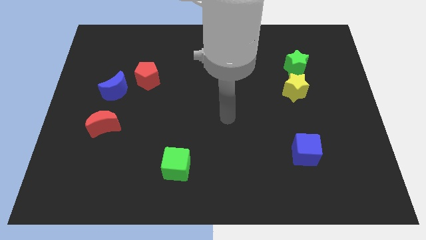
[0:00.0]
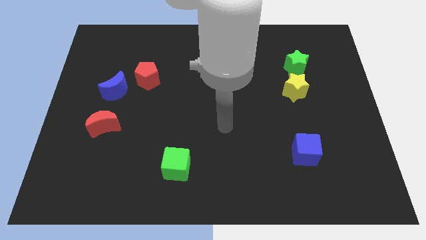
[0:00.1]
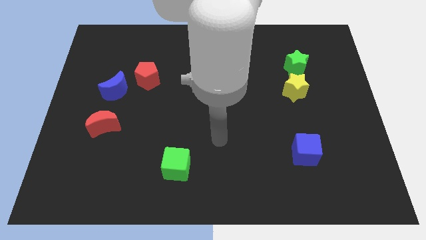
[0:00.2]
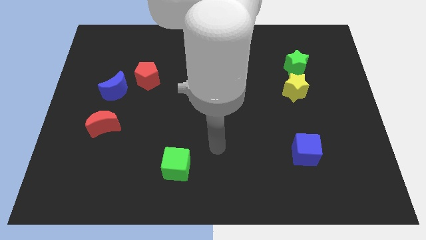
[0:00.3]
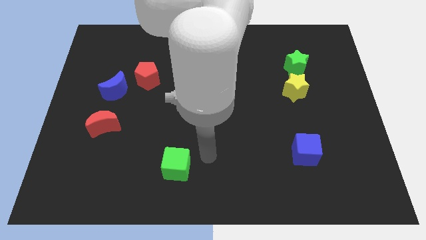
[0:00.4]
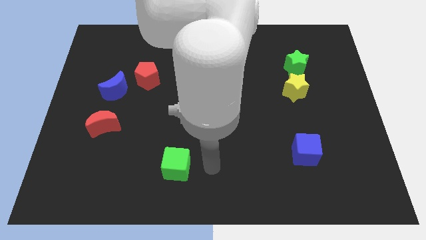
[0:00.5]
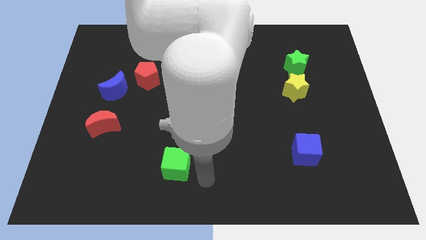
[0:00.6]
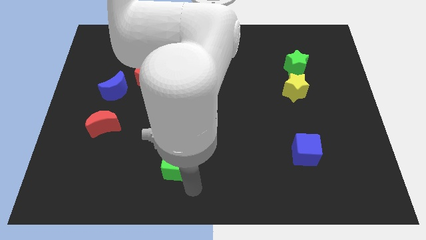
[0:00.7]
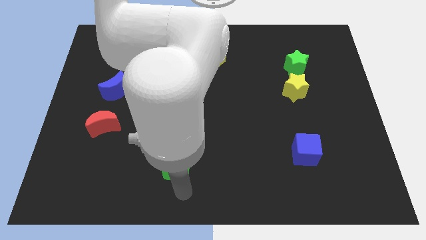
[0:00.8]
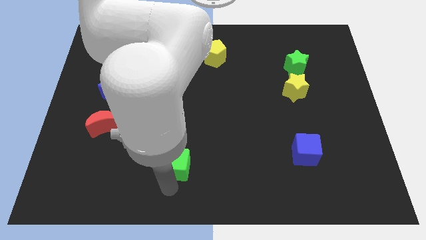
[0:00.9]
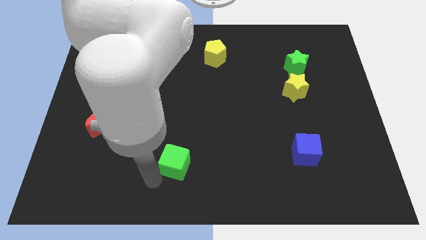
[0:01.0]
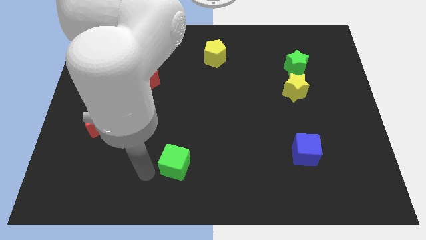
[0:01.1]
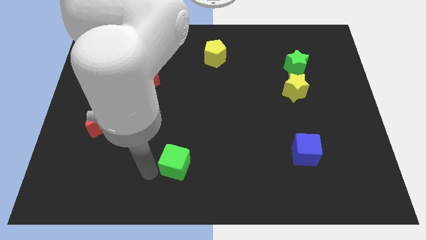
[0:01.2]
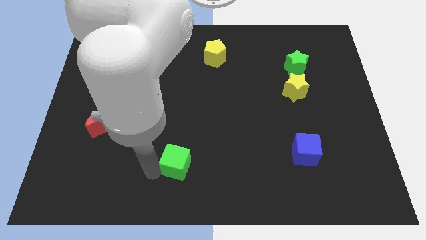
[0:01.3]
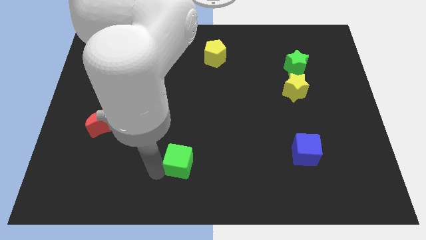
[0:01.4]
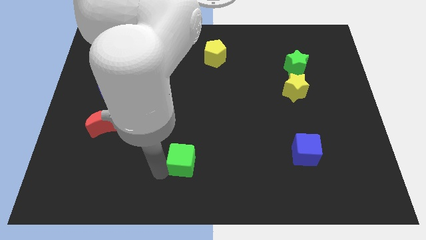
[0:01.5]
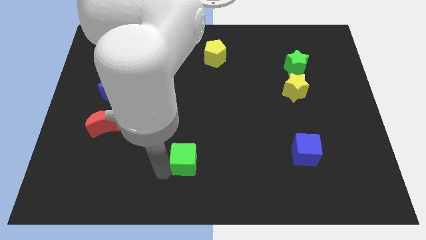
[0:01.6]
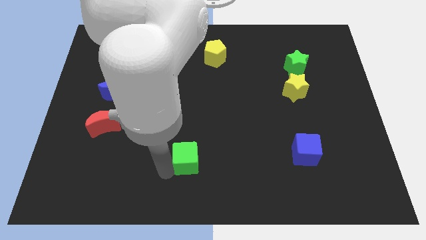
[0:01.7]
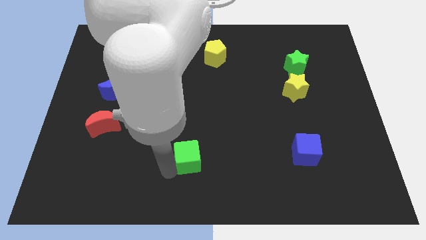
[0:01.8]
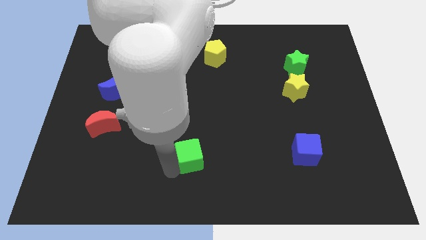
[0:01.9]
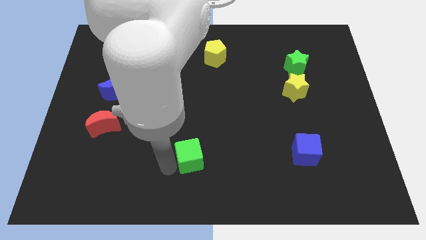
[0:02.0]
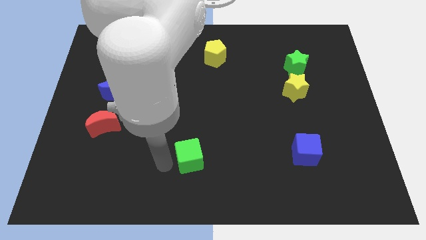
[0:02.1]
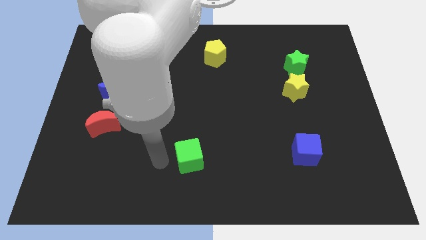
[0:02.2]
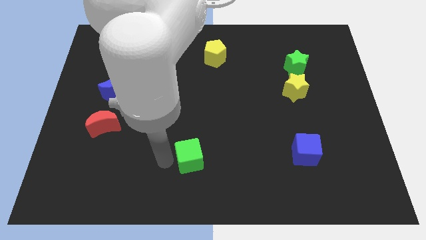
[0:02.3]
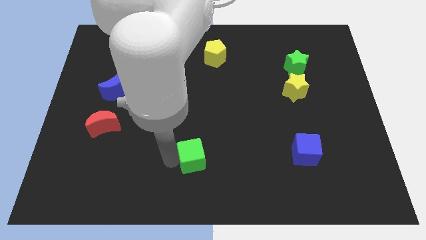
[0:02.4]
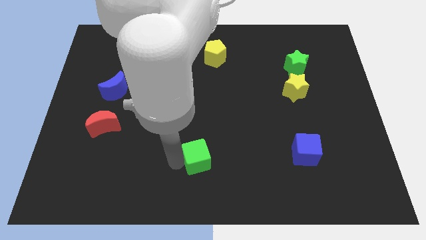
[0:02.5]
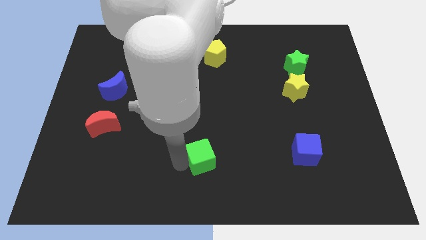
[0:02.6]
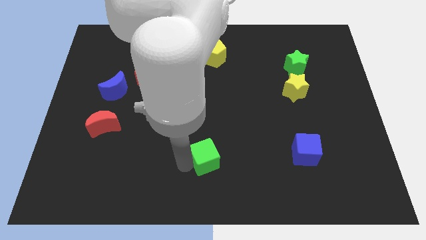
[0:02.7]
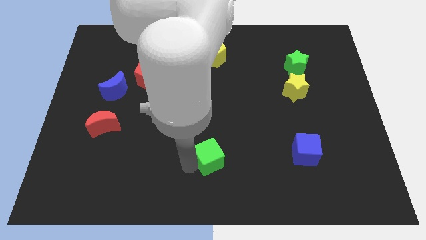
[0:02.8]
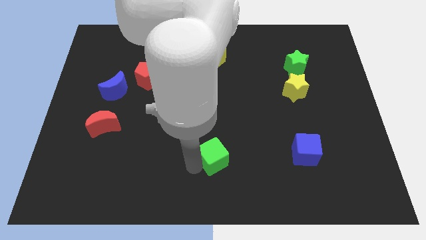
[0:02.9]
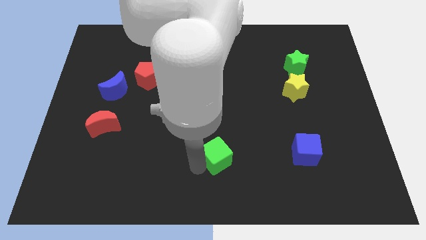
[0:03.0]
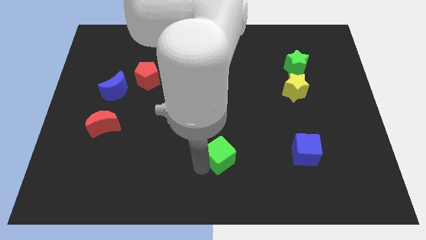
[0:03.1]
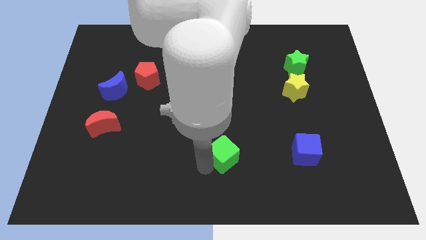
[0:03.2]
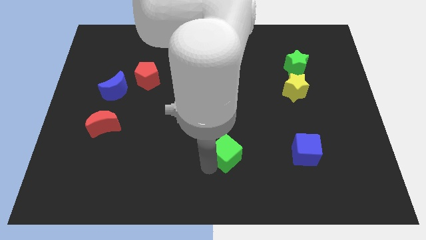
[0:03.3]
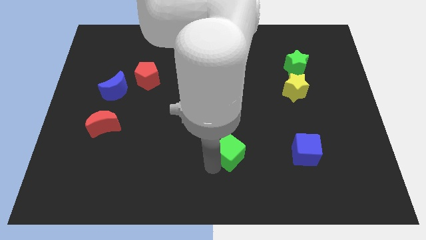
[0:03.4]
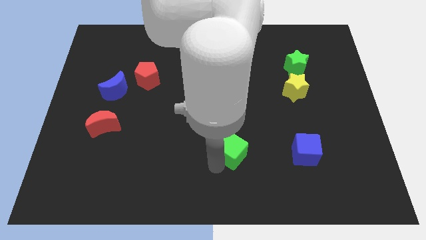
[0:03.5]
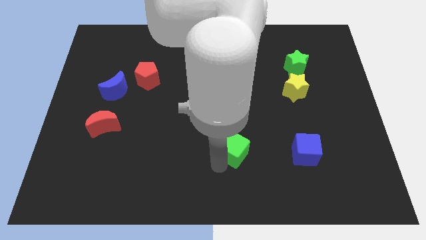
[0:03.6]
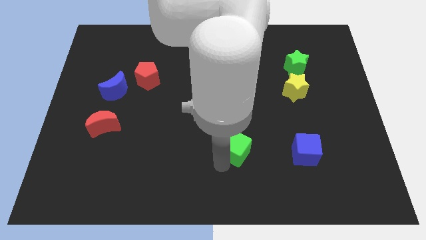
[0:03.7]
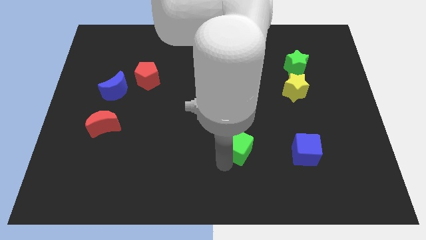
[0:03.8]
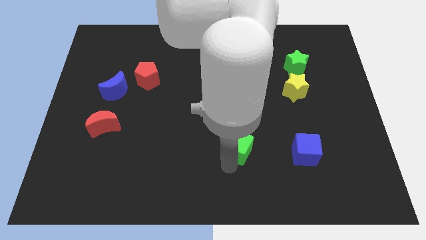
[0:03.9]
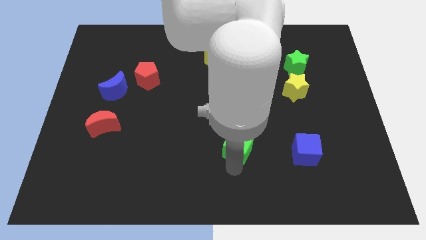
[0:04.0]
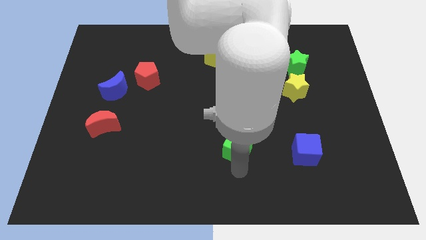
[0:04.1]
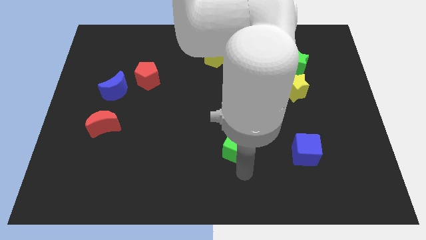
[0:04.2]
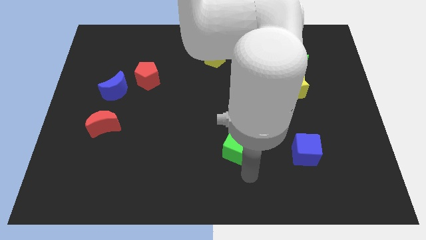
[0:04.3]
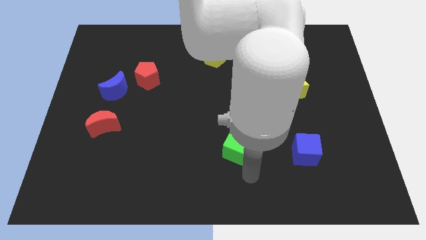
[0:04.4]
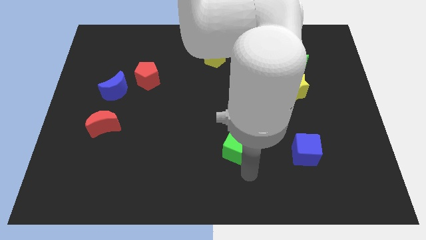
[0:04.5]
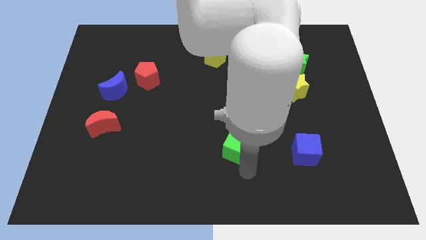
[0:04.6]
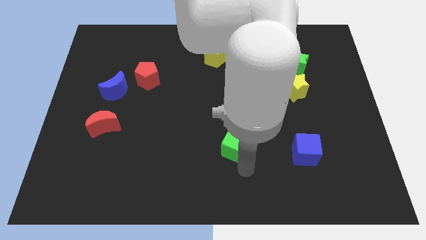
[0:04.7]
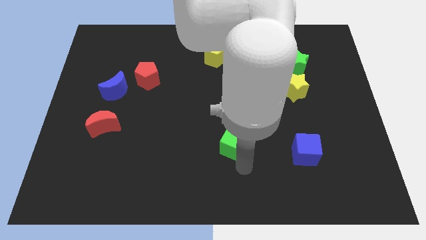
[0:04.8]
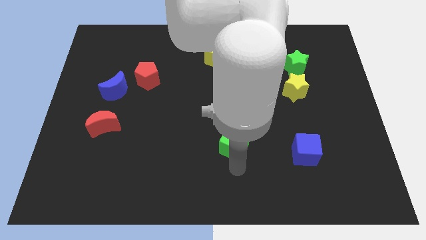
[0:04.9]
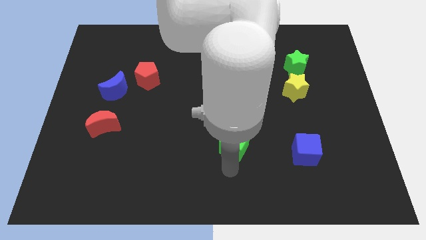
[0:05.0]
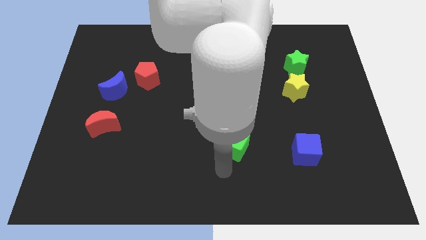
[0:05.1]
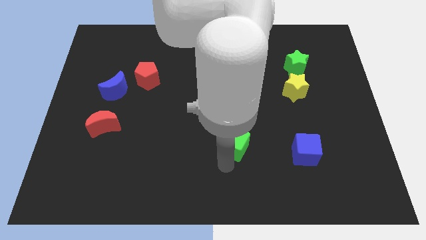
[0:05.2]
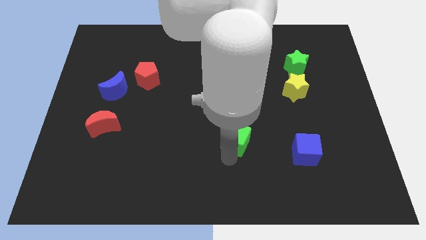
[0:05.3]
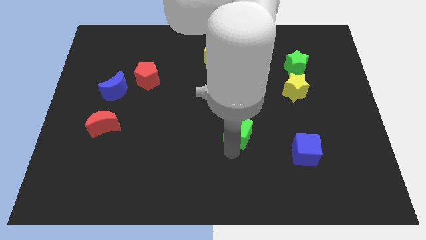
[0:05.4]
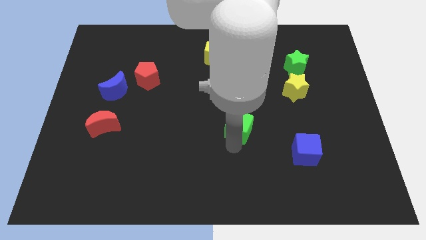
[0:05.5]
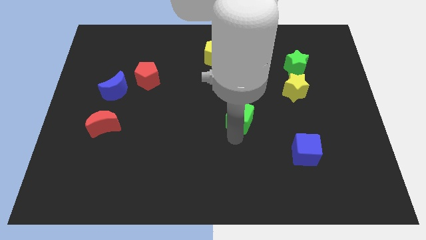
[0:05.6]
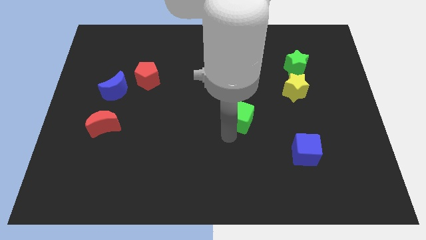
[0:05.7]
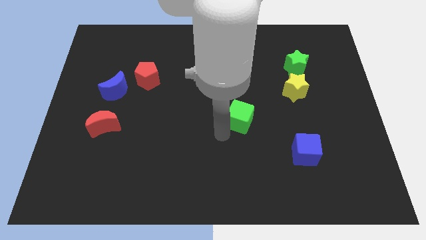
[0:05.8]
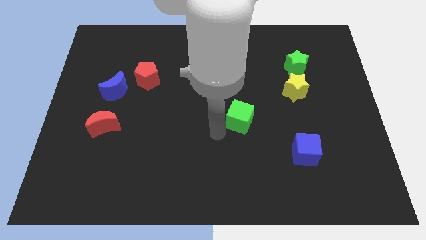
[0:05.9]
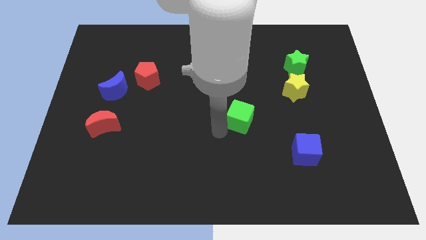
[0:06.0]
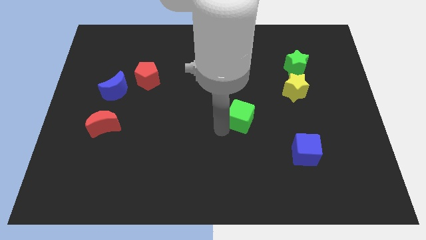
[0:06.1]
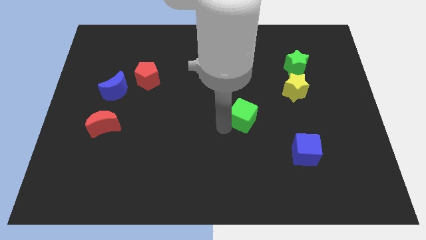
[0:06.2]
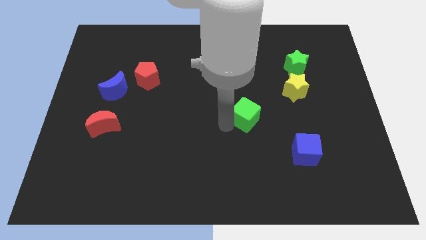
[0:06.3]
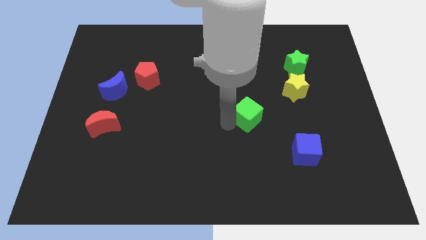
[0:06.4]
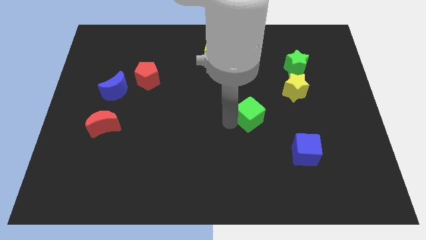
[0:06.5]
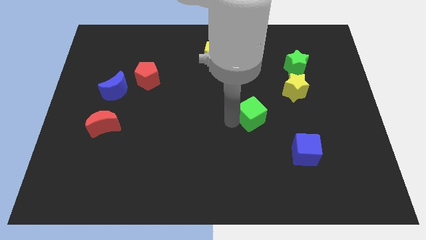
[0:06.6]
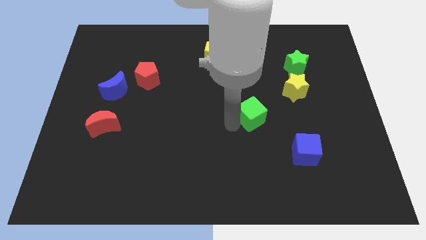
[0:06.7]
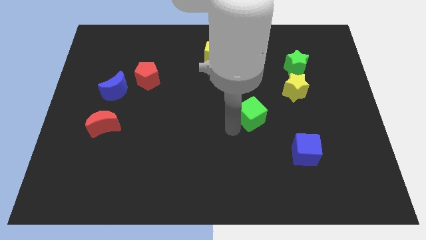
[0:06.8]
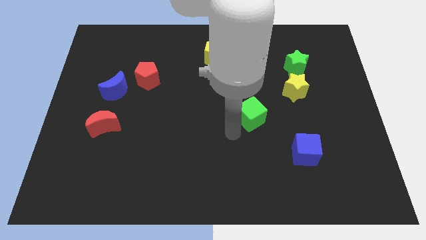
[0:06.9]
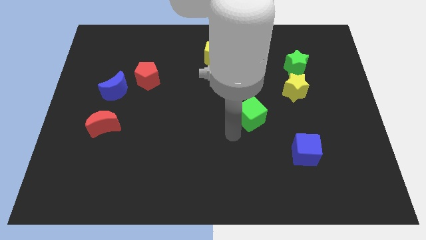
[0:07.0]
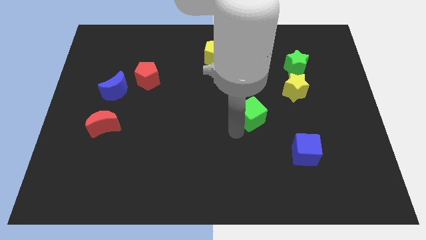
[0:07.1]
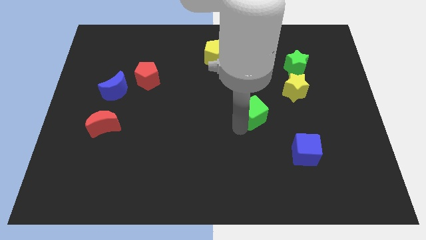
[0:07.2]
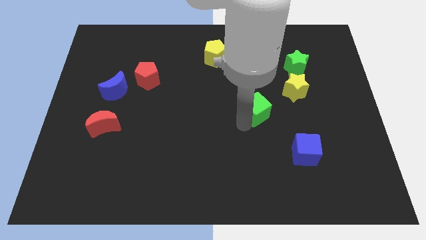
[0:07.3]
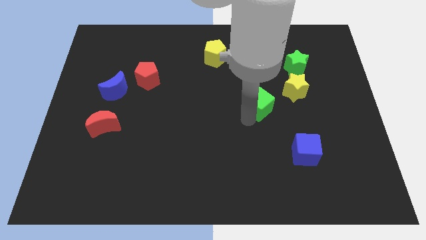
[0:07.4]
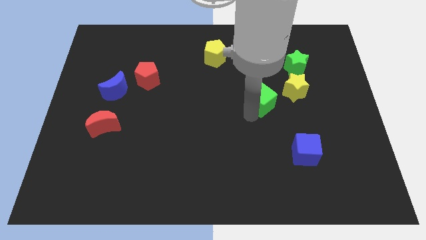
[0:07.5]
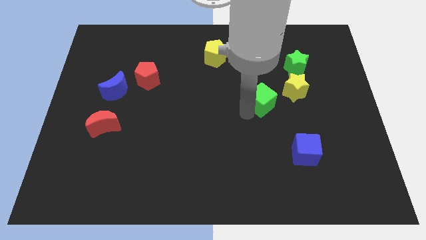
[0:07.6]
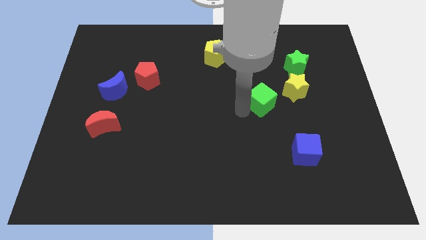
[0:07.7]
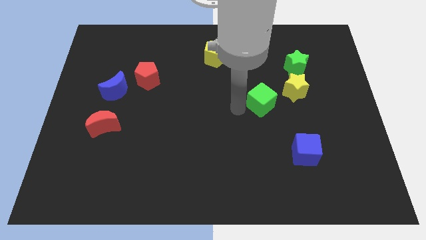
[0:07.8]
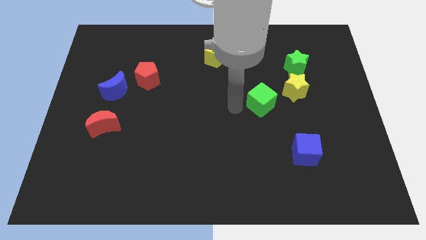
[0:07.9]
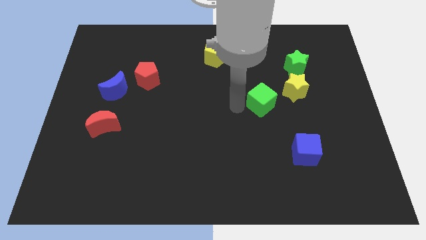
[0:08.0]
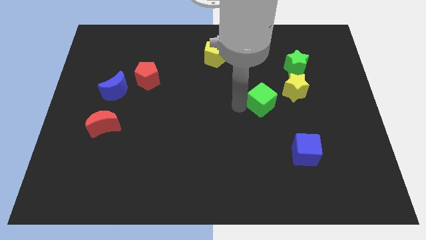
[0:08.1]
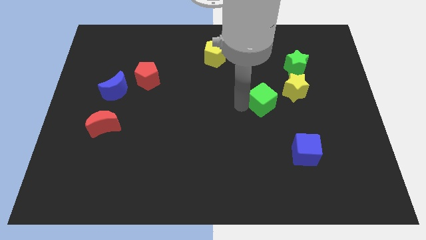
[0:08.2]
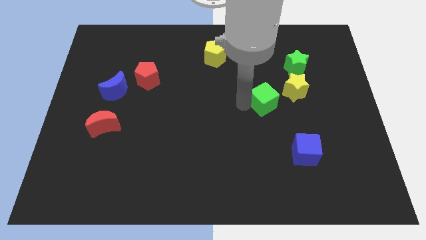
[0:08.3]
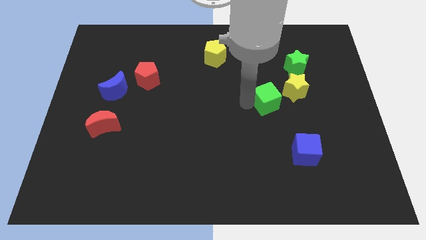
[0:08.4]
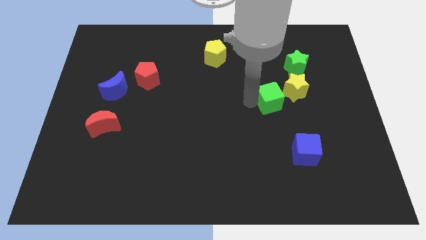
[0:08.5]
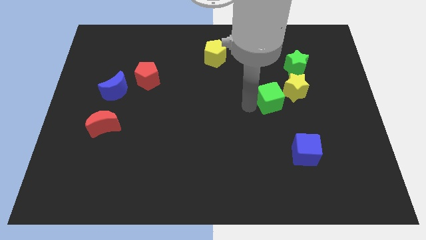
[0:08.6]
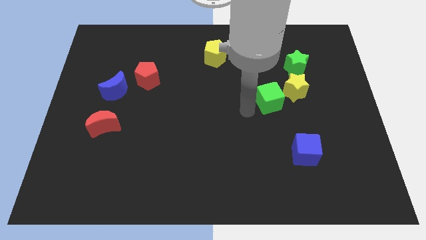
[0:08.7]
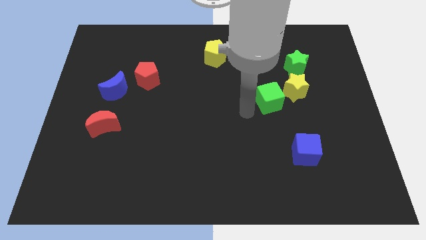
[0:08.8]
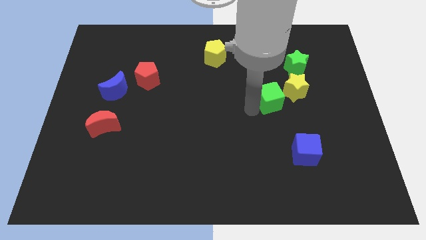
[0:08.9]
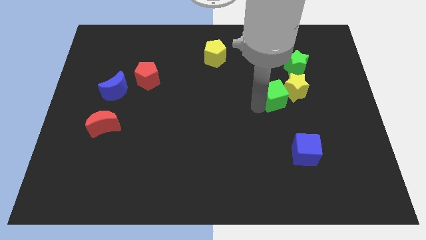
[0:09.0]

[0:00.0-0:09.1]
push the green cube towards the yellow star
